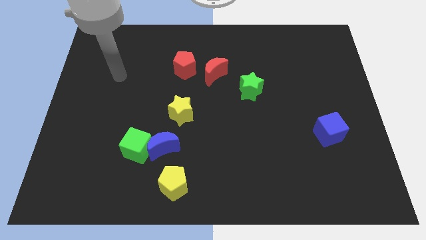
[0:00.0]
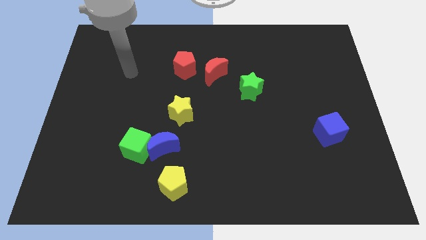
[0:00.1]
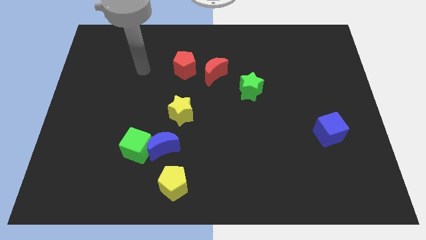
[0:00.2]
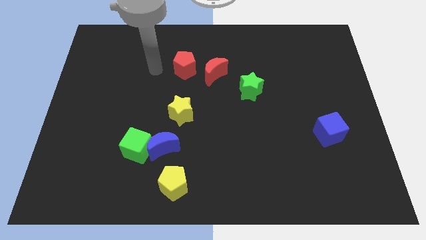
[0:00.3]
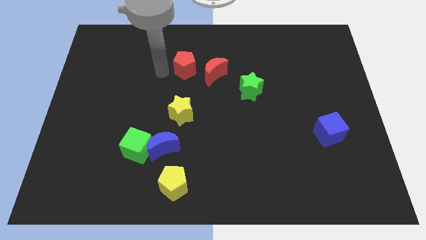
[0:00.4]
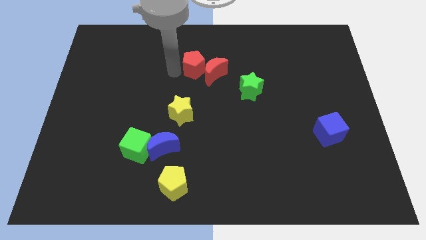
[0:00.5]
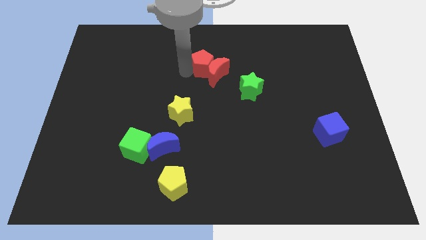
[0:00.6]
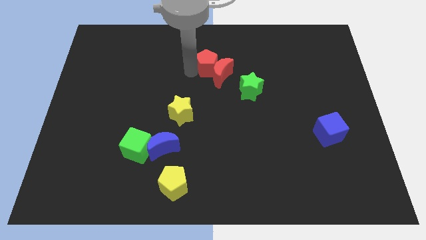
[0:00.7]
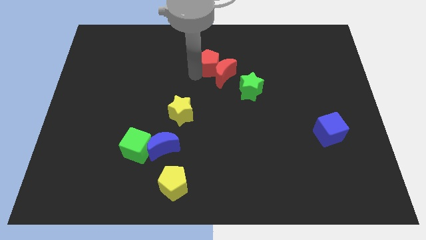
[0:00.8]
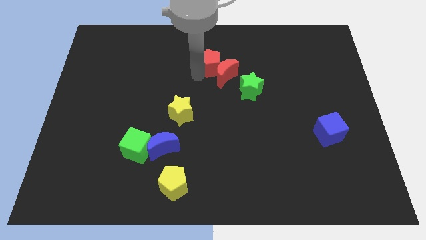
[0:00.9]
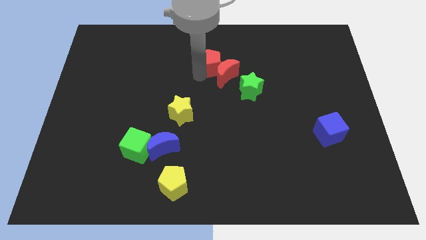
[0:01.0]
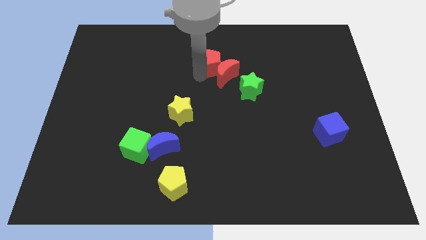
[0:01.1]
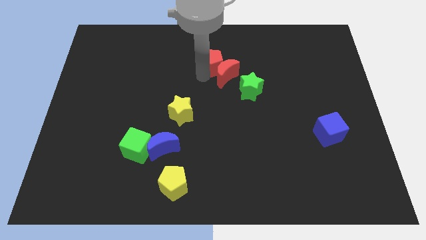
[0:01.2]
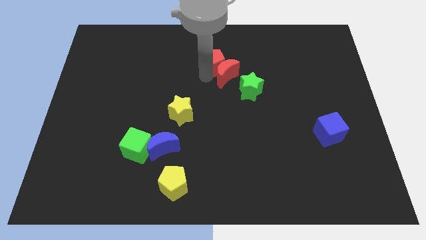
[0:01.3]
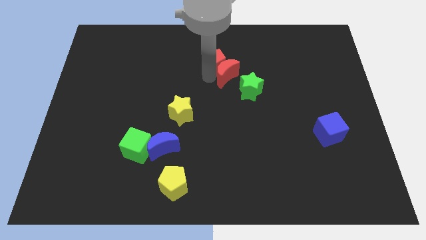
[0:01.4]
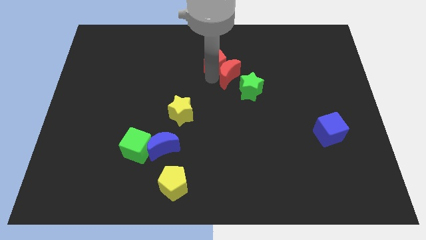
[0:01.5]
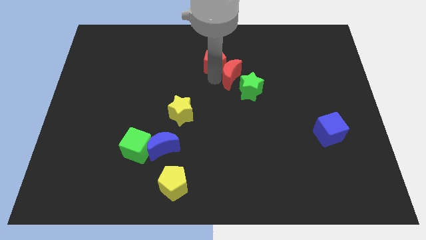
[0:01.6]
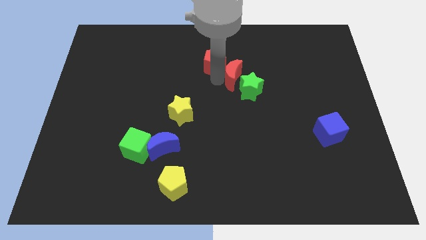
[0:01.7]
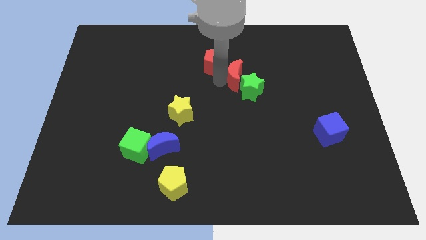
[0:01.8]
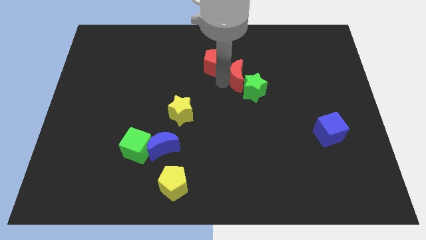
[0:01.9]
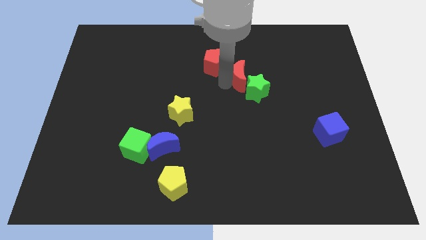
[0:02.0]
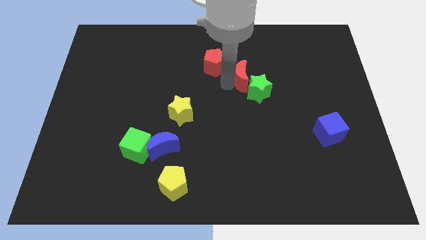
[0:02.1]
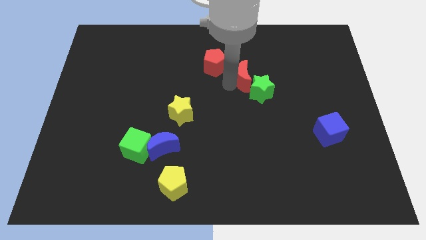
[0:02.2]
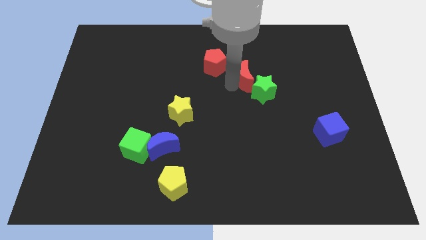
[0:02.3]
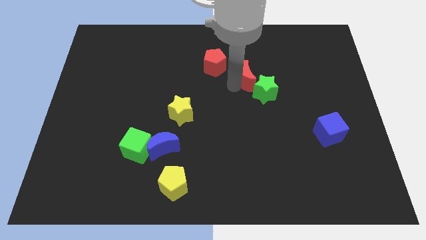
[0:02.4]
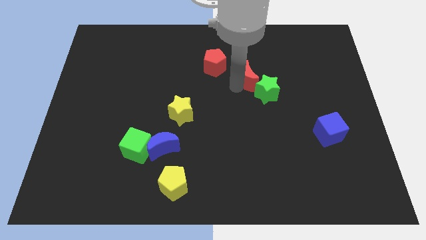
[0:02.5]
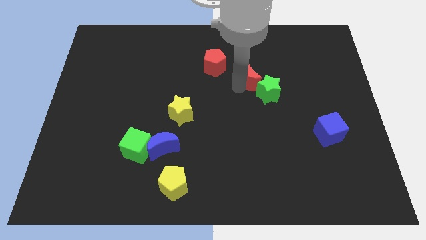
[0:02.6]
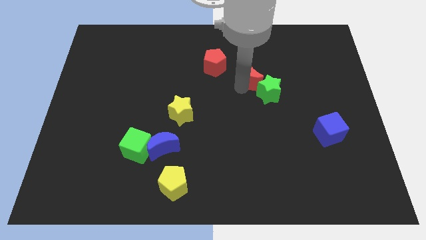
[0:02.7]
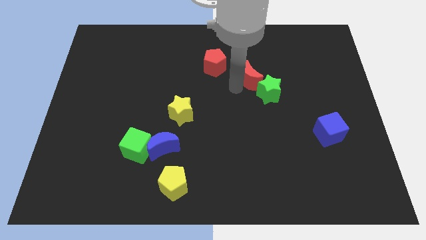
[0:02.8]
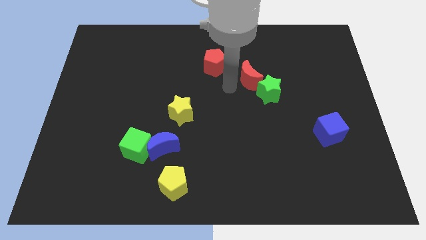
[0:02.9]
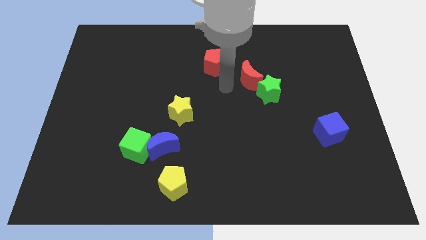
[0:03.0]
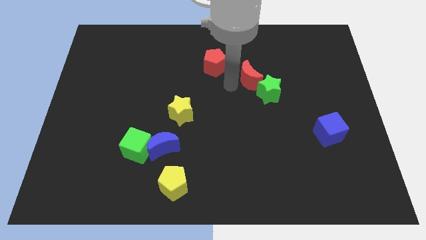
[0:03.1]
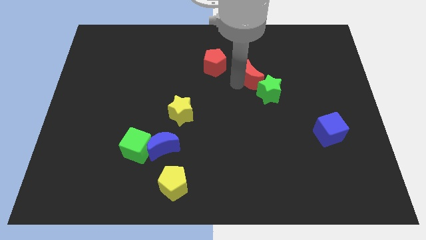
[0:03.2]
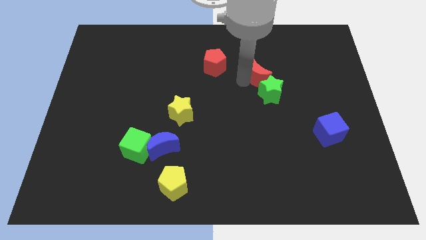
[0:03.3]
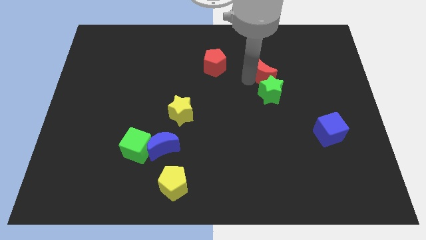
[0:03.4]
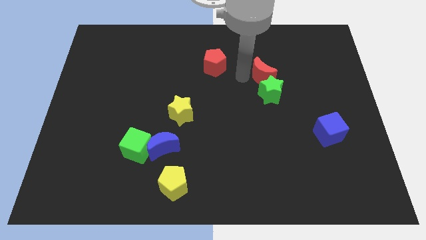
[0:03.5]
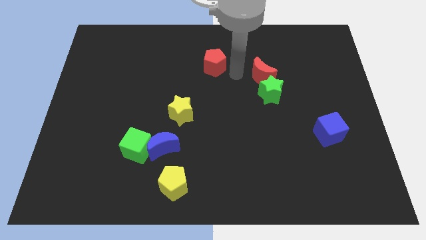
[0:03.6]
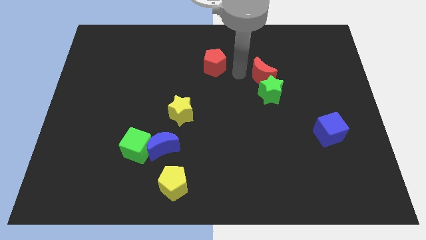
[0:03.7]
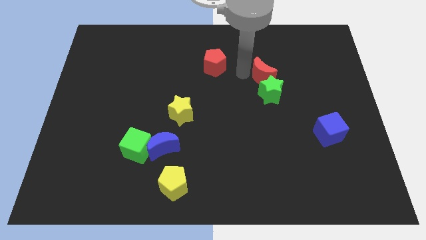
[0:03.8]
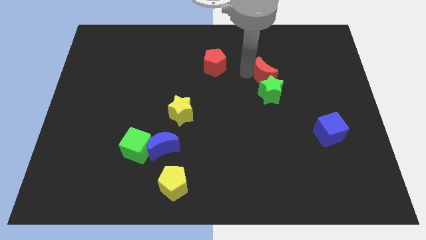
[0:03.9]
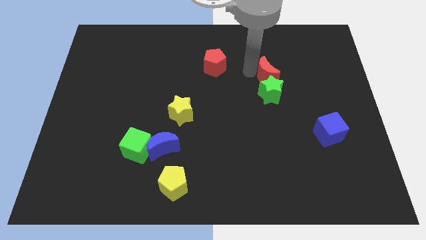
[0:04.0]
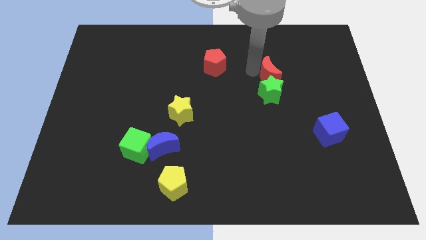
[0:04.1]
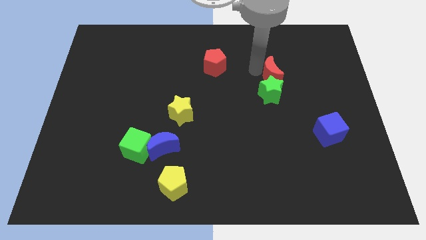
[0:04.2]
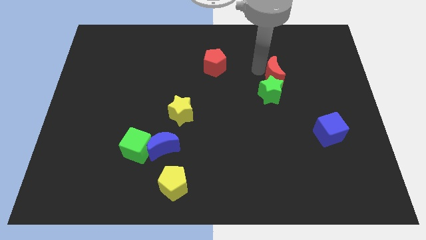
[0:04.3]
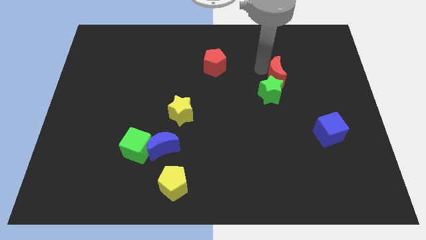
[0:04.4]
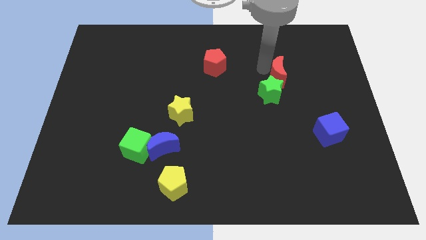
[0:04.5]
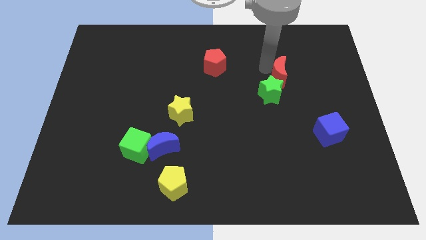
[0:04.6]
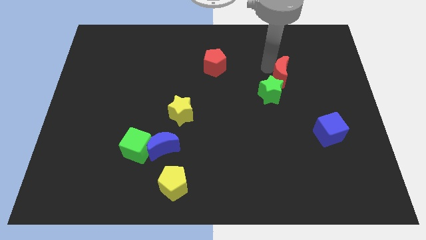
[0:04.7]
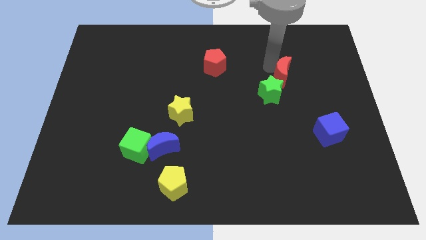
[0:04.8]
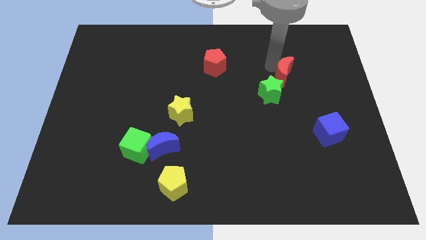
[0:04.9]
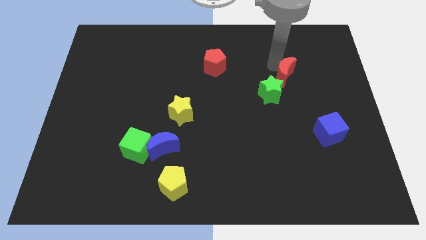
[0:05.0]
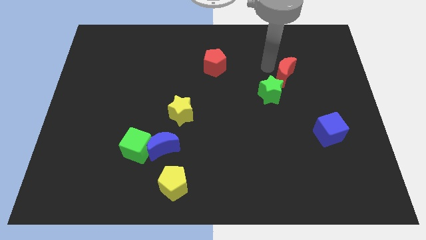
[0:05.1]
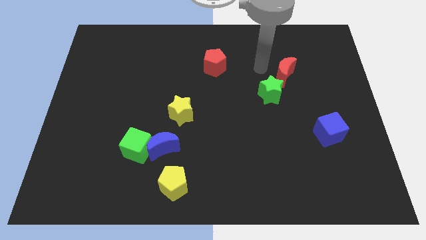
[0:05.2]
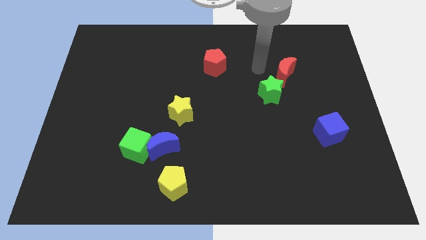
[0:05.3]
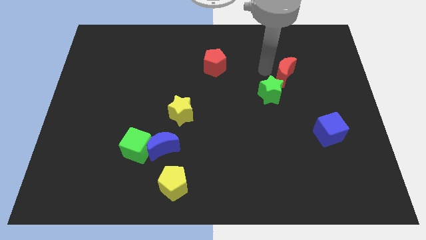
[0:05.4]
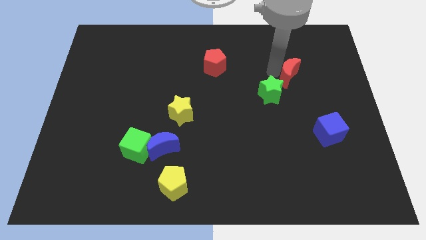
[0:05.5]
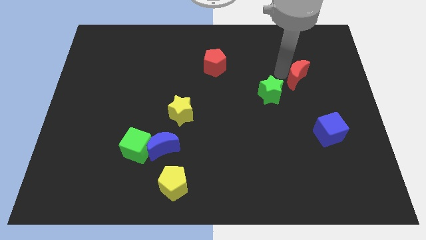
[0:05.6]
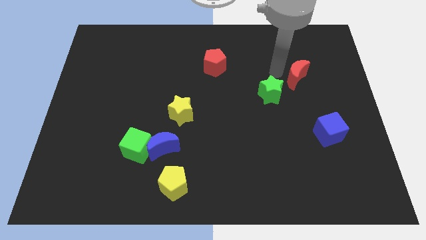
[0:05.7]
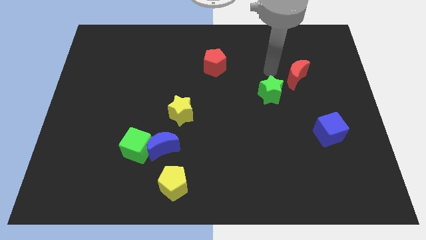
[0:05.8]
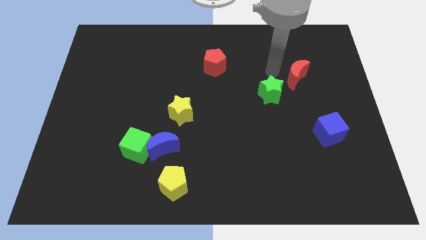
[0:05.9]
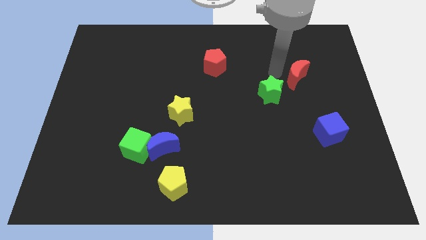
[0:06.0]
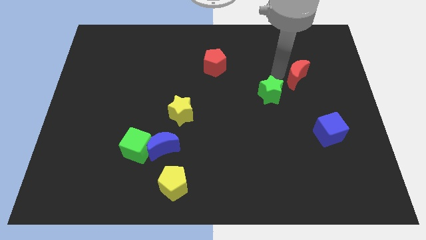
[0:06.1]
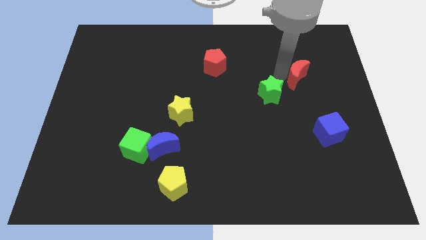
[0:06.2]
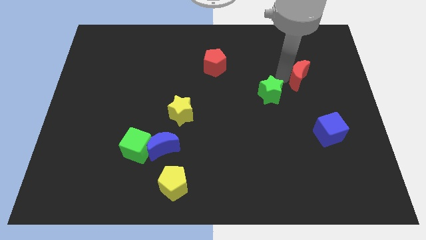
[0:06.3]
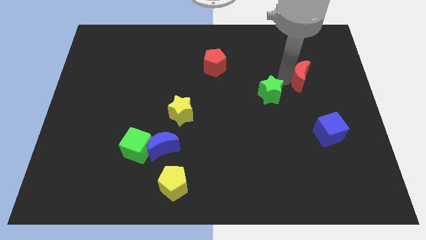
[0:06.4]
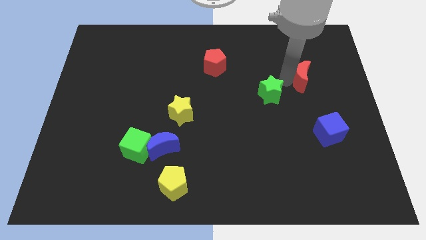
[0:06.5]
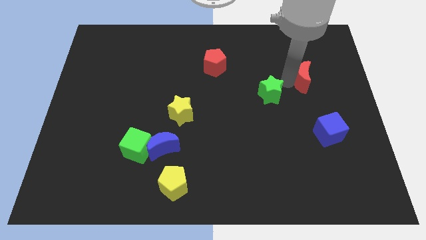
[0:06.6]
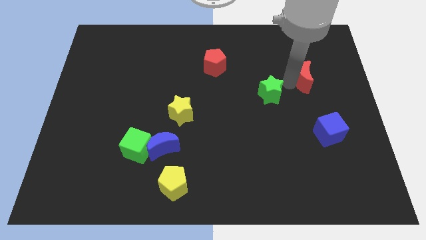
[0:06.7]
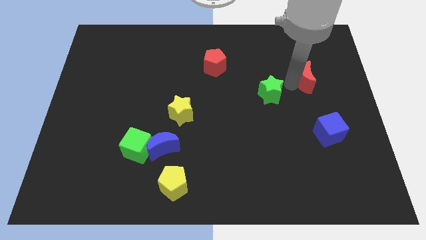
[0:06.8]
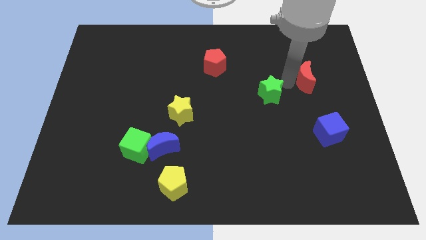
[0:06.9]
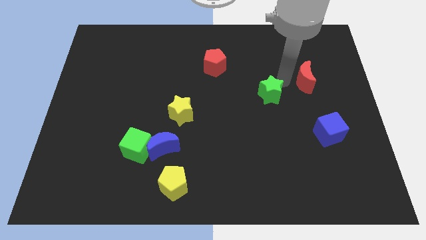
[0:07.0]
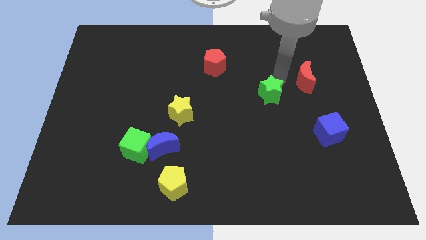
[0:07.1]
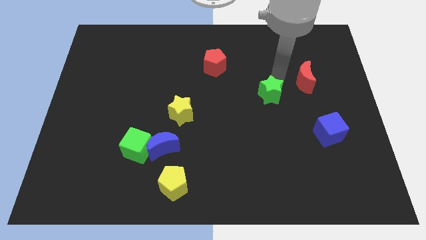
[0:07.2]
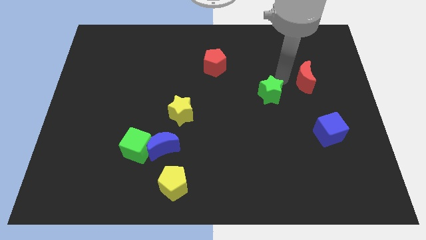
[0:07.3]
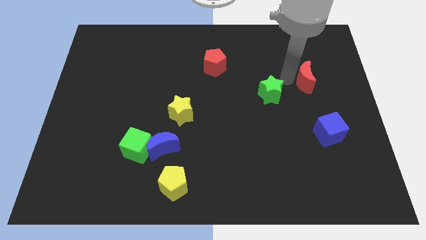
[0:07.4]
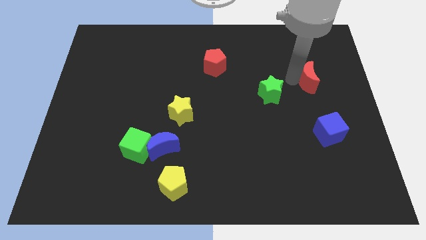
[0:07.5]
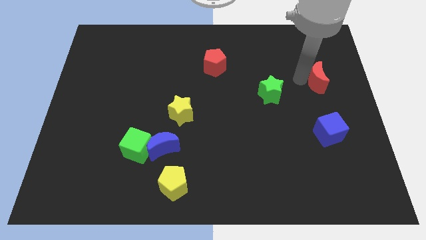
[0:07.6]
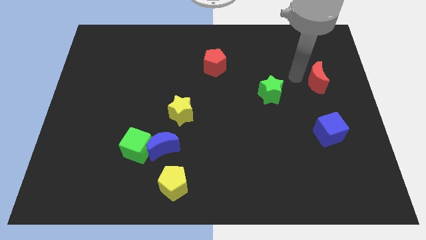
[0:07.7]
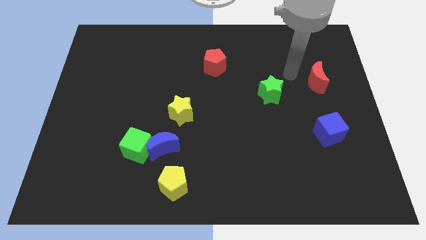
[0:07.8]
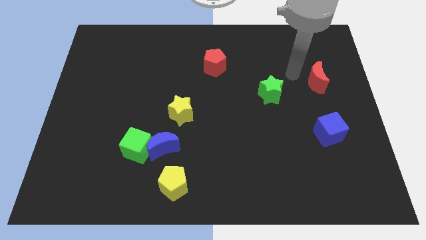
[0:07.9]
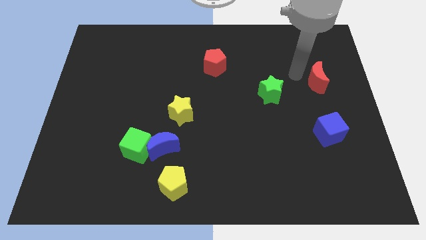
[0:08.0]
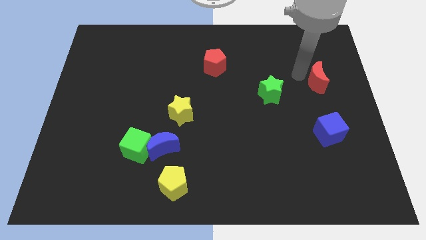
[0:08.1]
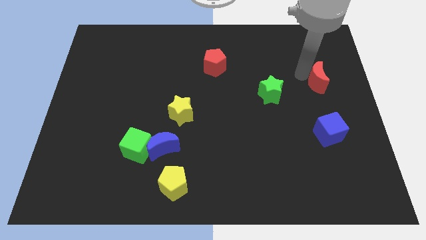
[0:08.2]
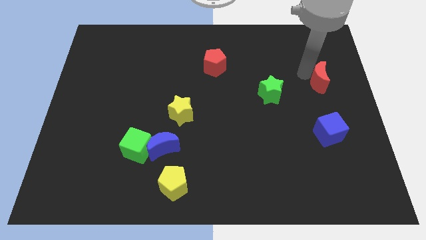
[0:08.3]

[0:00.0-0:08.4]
push the red moon to the center right
